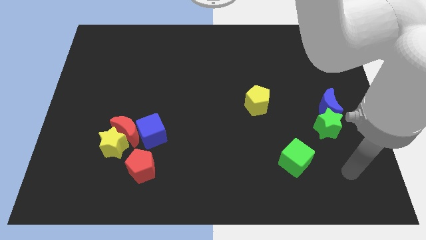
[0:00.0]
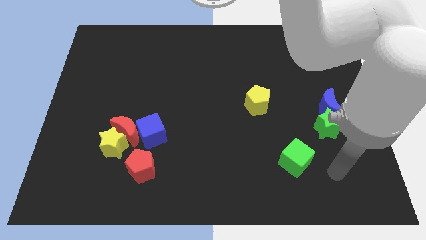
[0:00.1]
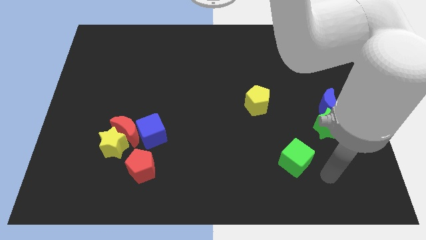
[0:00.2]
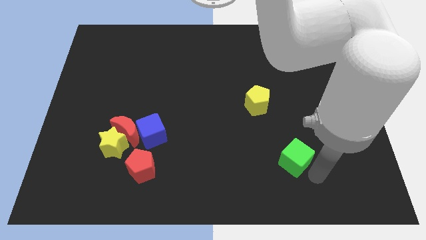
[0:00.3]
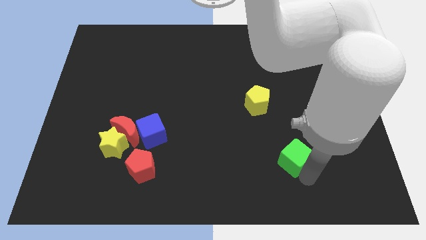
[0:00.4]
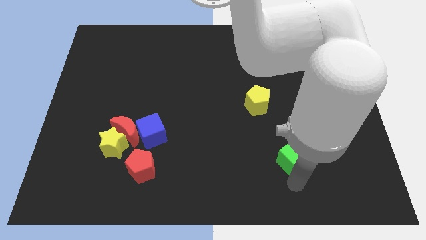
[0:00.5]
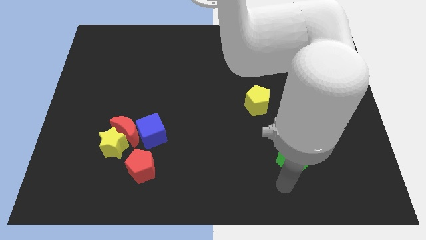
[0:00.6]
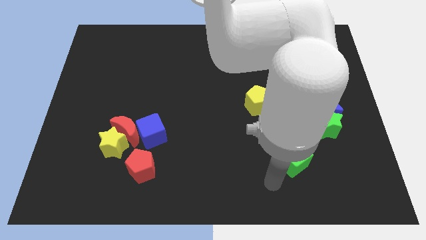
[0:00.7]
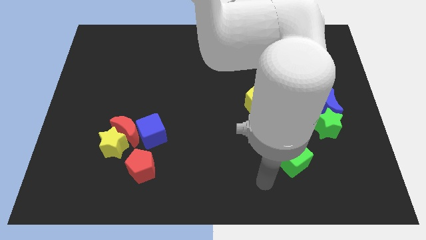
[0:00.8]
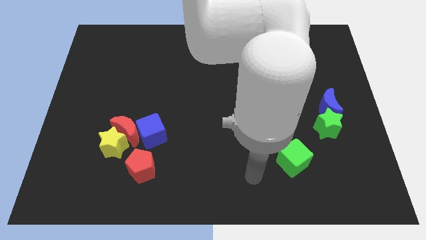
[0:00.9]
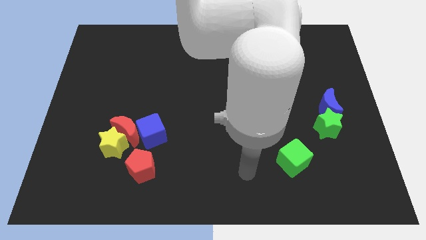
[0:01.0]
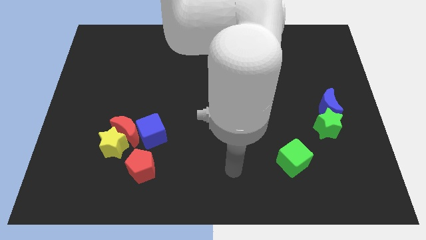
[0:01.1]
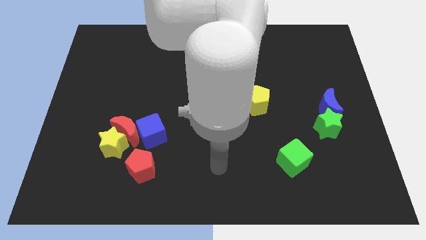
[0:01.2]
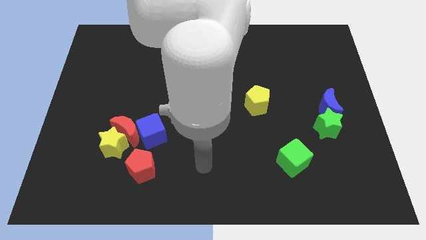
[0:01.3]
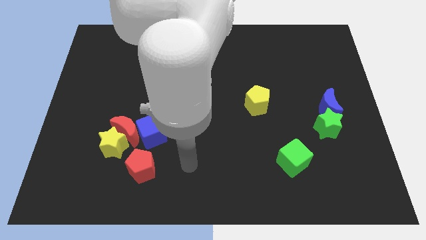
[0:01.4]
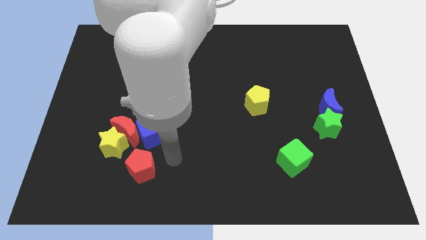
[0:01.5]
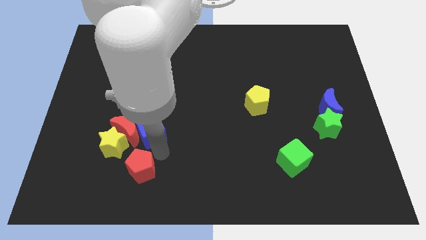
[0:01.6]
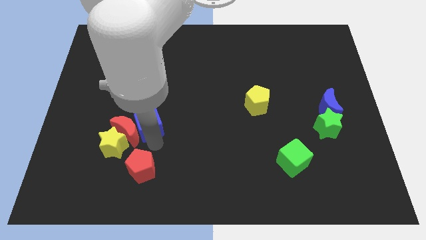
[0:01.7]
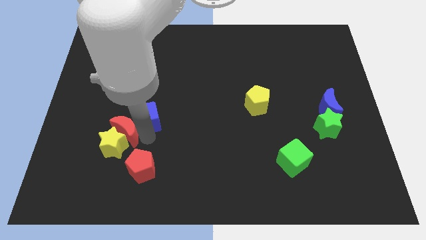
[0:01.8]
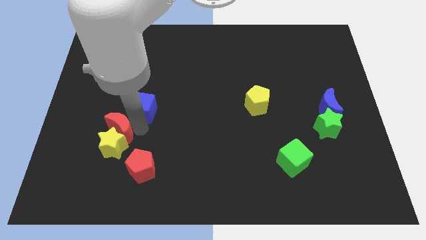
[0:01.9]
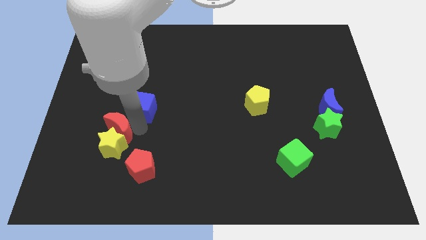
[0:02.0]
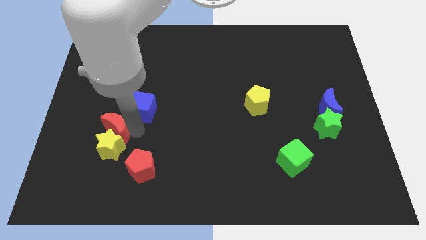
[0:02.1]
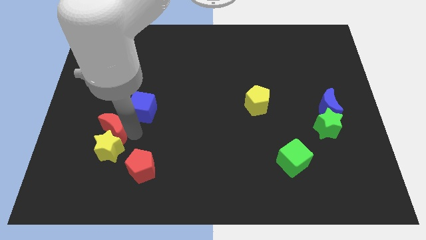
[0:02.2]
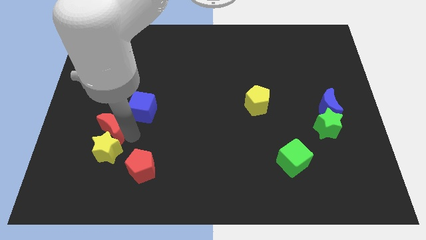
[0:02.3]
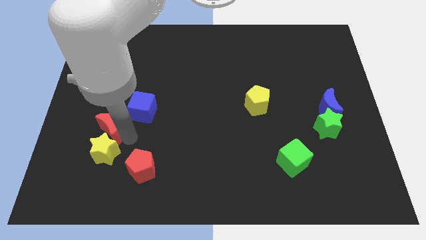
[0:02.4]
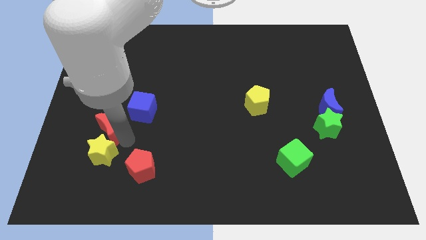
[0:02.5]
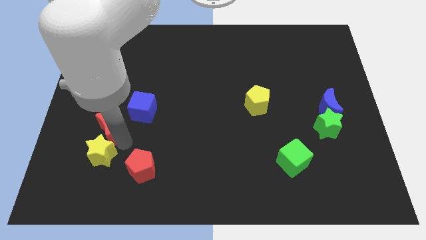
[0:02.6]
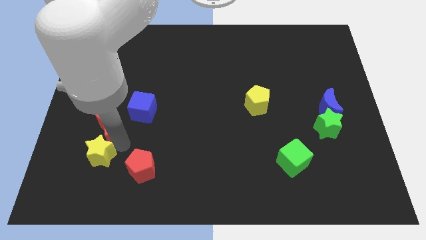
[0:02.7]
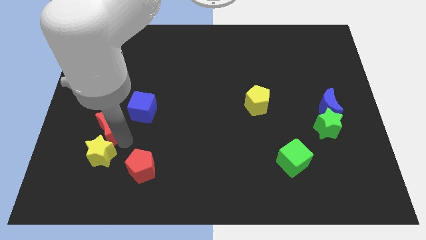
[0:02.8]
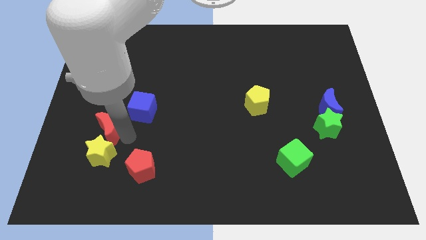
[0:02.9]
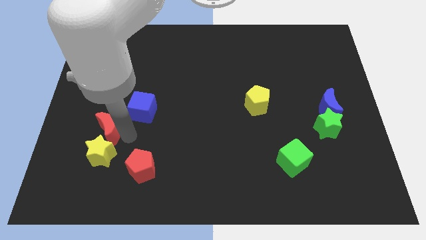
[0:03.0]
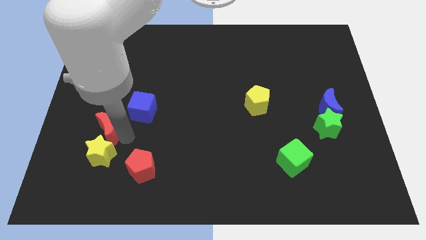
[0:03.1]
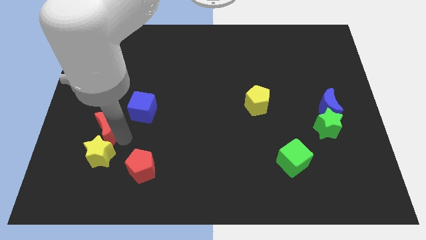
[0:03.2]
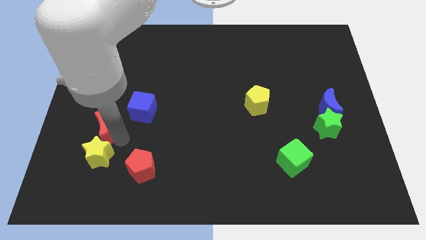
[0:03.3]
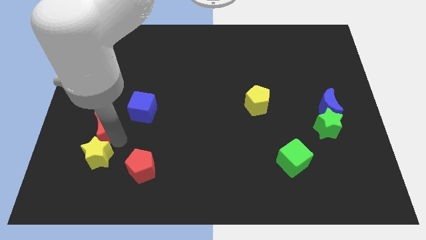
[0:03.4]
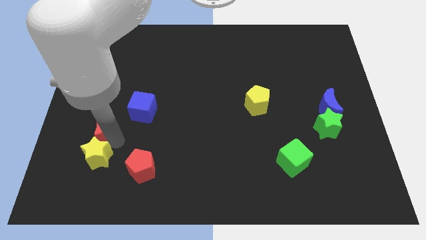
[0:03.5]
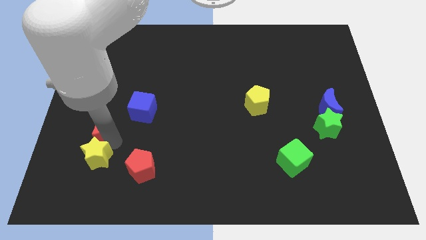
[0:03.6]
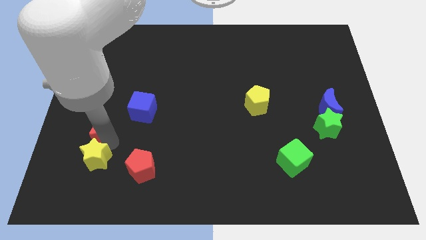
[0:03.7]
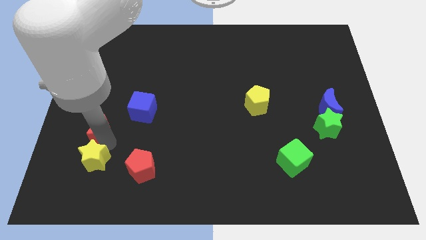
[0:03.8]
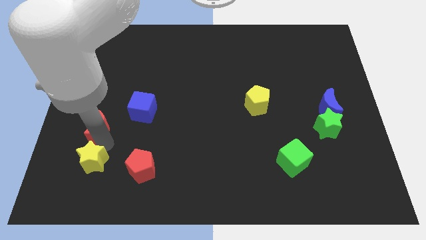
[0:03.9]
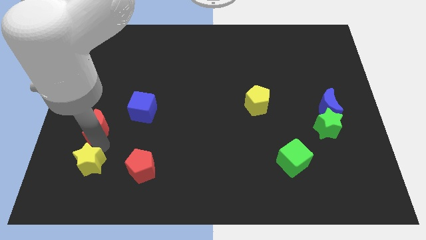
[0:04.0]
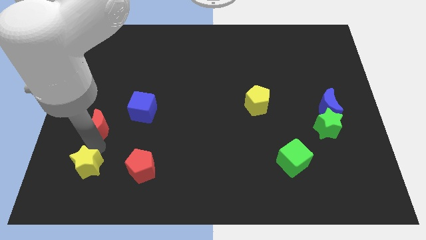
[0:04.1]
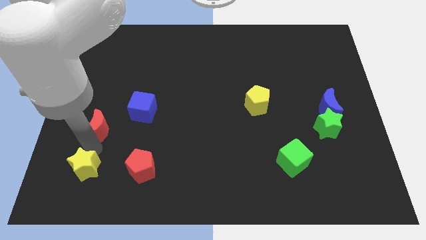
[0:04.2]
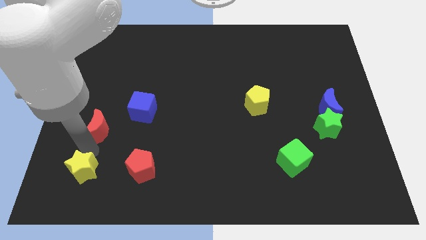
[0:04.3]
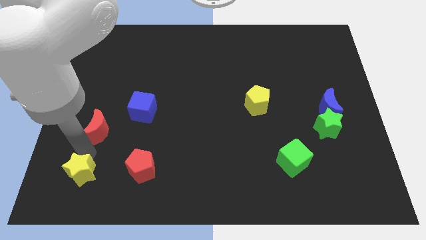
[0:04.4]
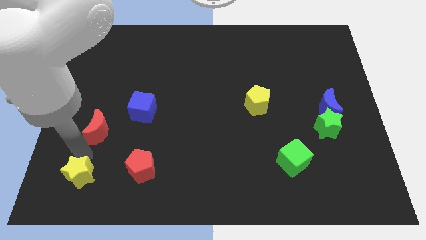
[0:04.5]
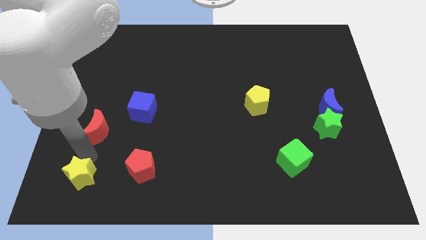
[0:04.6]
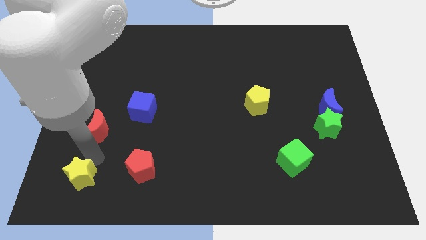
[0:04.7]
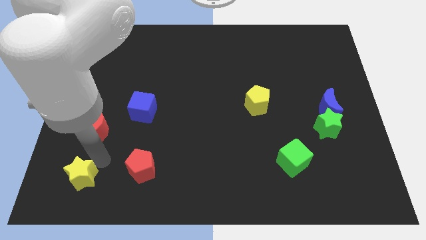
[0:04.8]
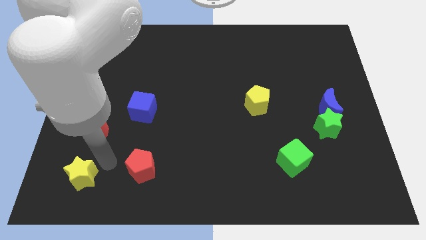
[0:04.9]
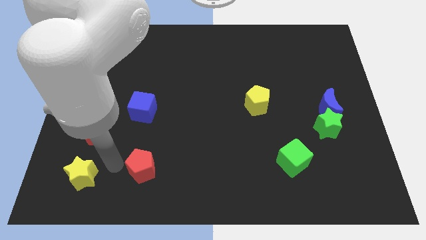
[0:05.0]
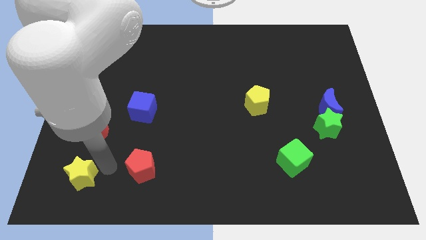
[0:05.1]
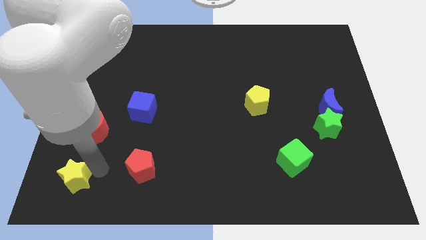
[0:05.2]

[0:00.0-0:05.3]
slide the yellow star to the bottom left of the board
